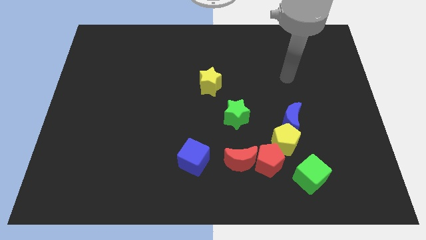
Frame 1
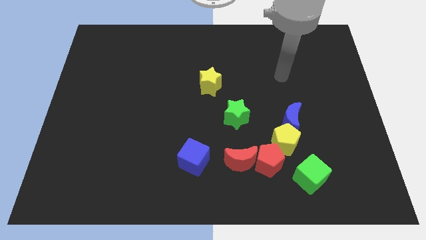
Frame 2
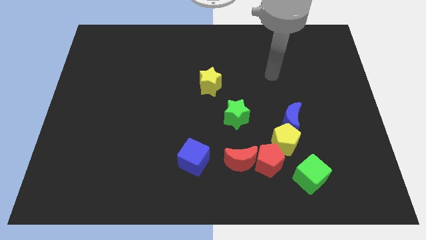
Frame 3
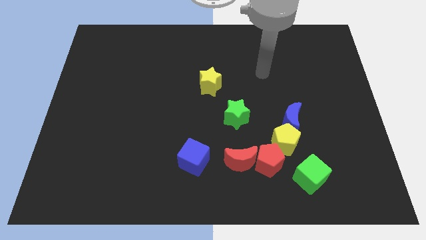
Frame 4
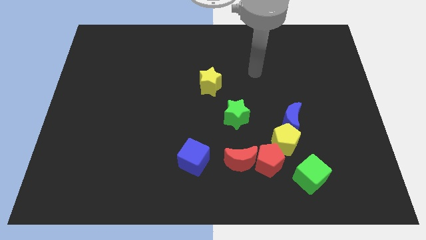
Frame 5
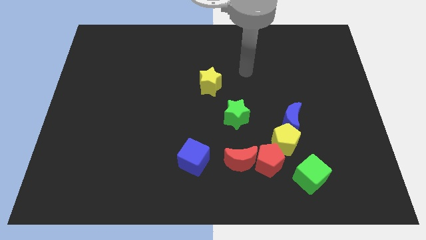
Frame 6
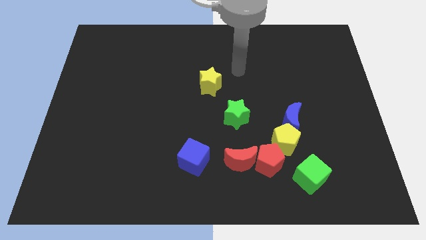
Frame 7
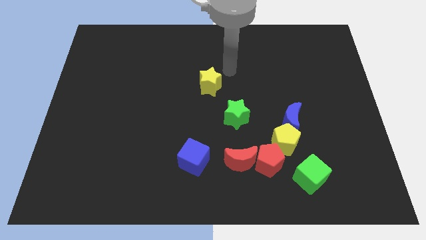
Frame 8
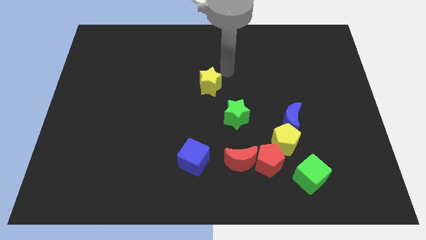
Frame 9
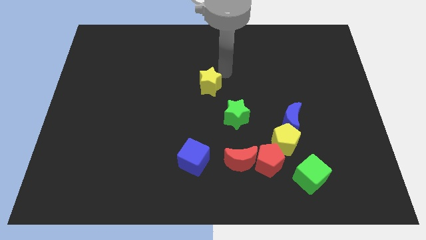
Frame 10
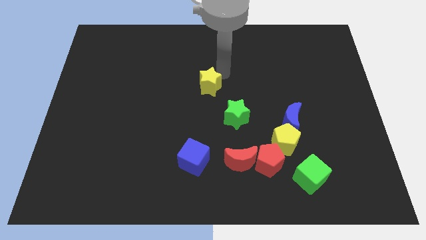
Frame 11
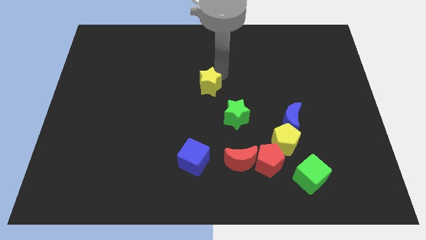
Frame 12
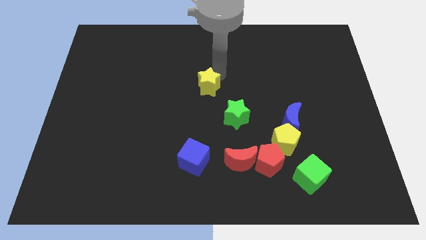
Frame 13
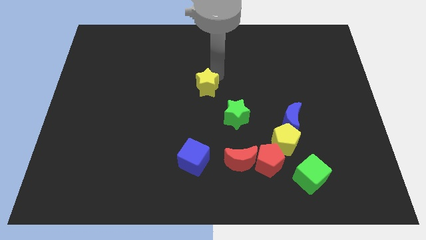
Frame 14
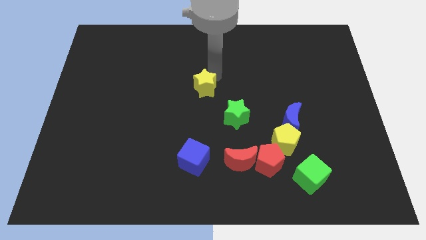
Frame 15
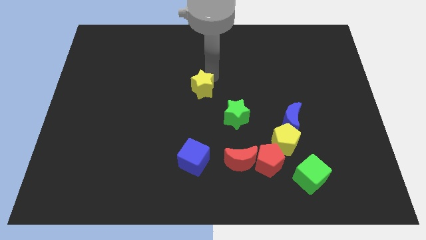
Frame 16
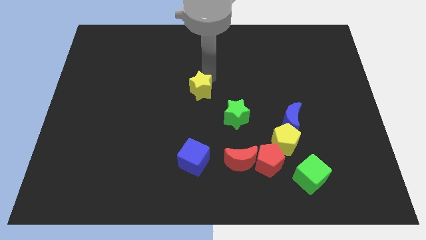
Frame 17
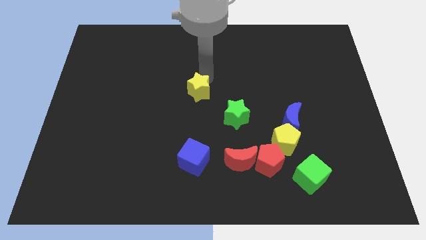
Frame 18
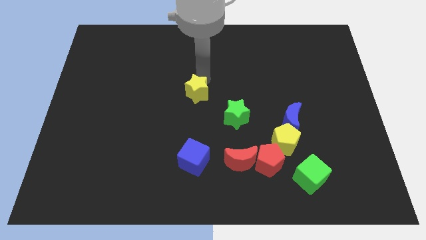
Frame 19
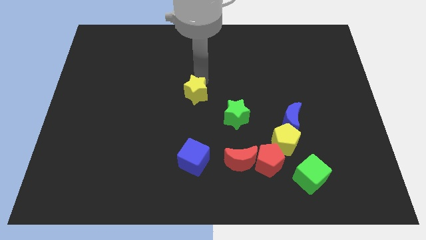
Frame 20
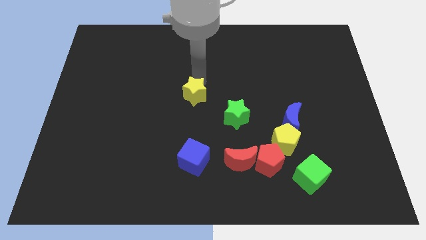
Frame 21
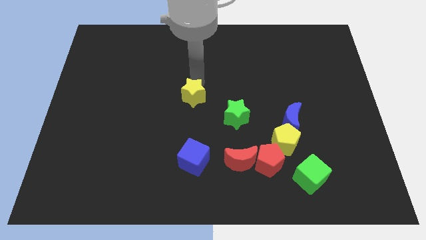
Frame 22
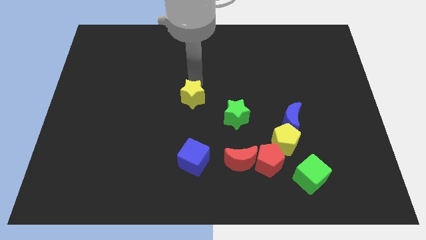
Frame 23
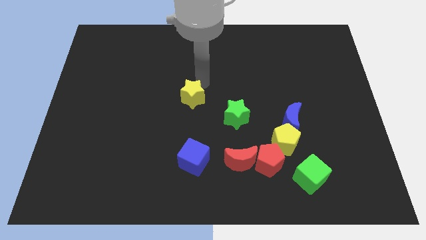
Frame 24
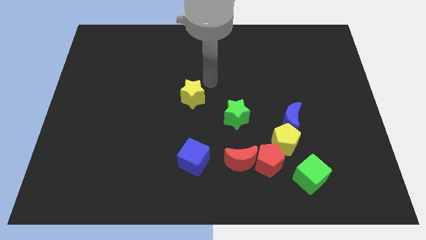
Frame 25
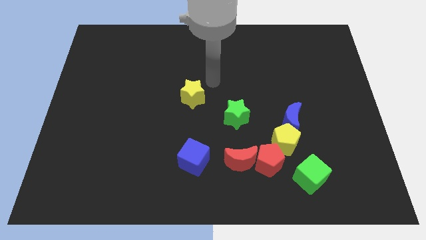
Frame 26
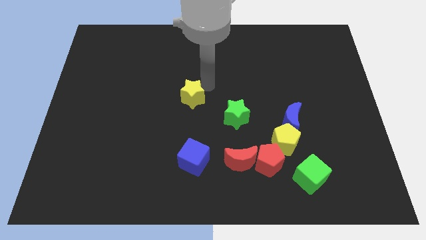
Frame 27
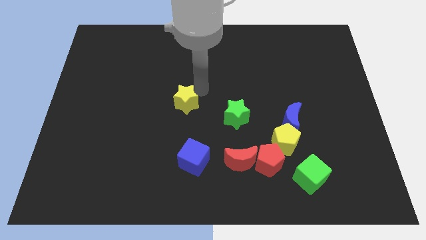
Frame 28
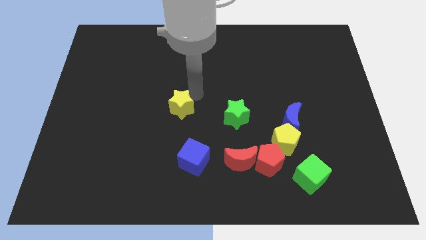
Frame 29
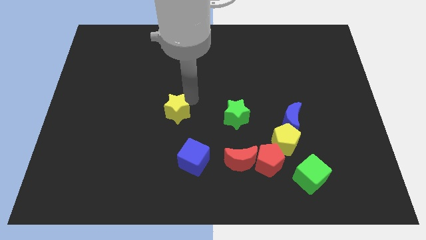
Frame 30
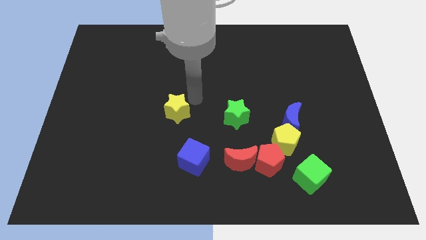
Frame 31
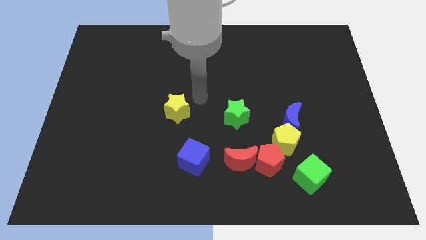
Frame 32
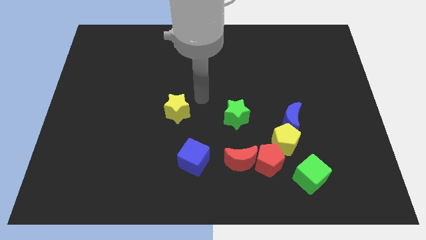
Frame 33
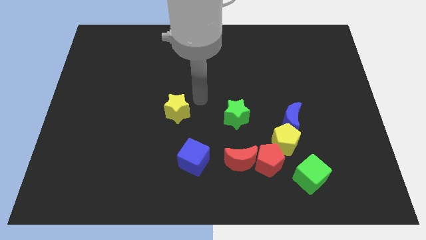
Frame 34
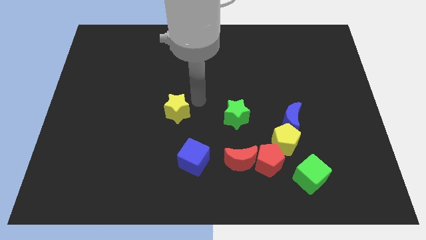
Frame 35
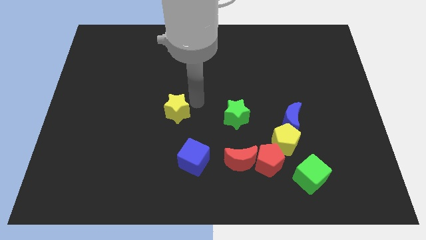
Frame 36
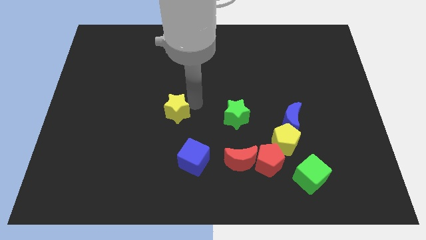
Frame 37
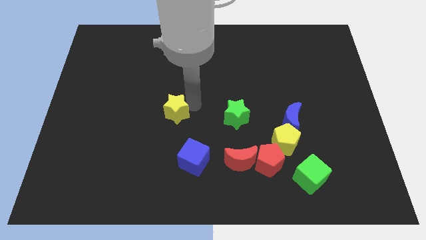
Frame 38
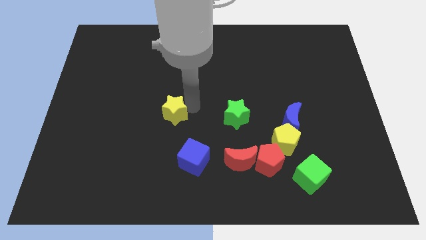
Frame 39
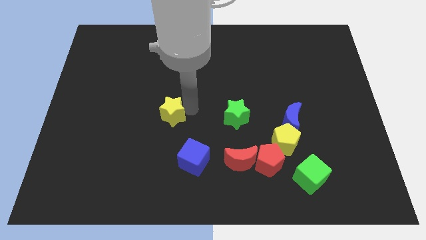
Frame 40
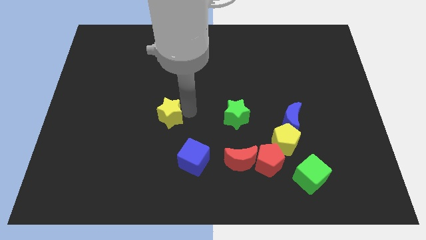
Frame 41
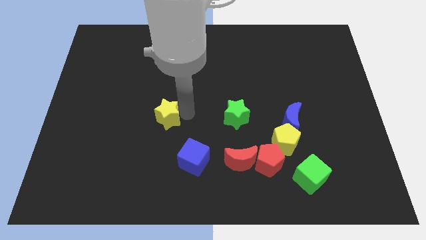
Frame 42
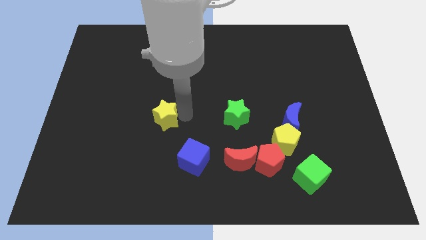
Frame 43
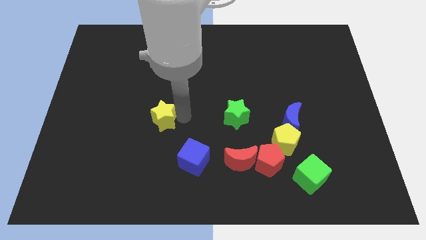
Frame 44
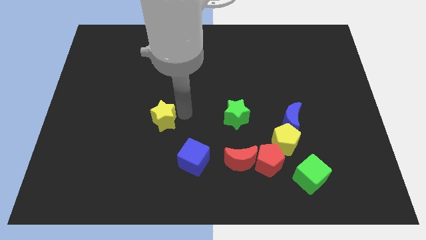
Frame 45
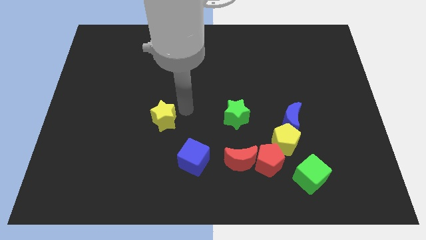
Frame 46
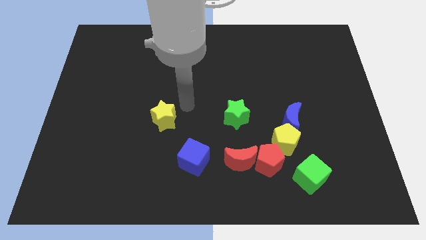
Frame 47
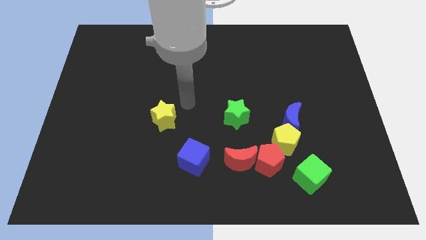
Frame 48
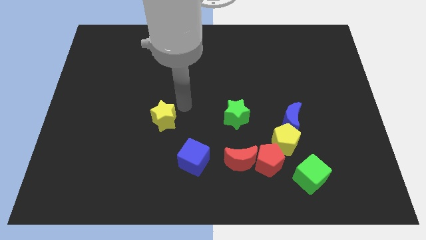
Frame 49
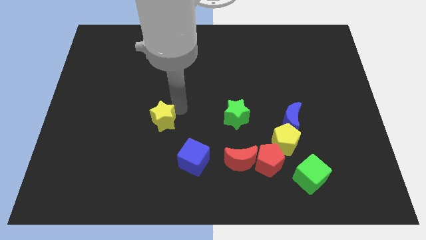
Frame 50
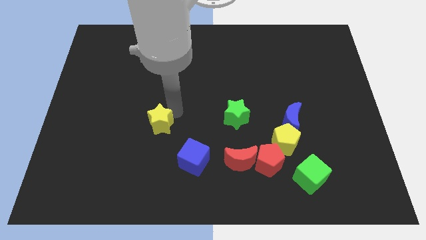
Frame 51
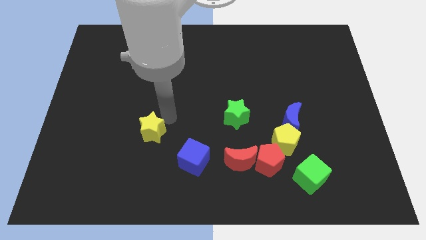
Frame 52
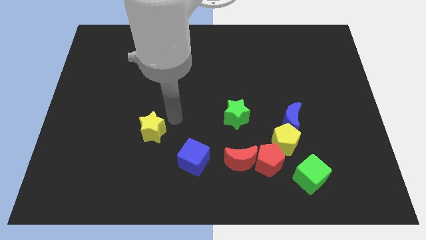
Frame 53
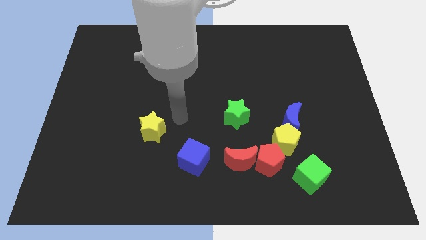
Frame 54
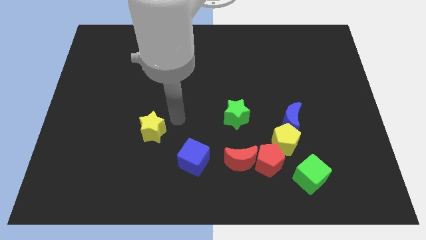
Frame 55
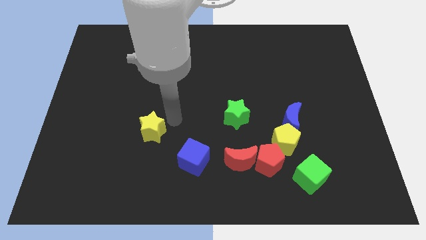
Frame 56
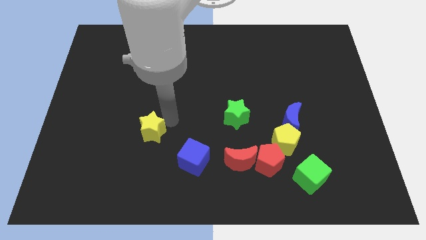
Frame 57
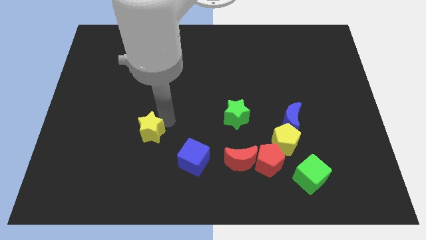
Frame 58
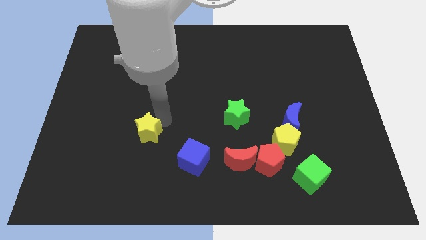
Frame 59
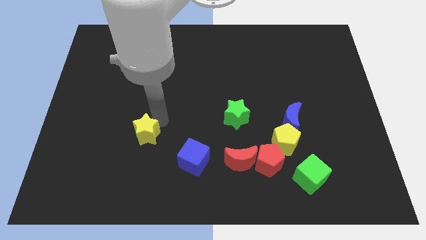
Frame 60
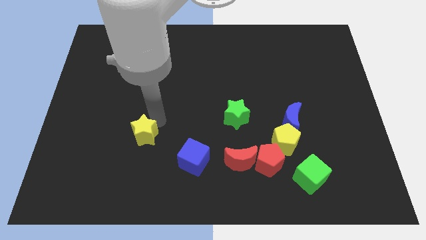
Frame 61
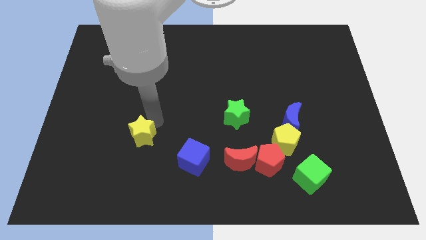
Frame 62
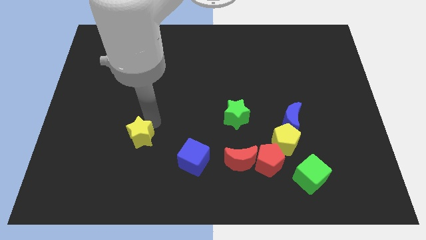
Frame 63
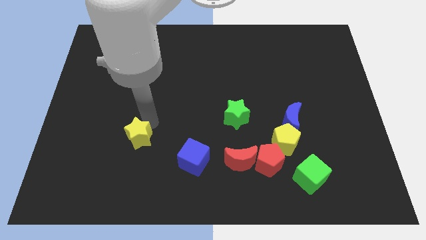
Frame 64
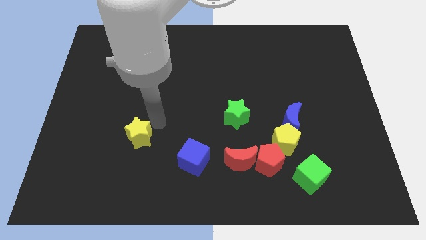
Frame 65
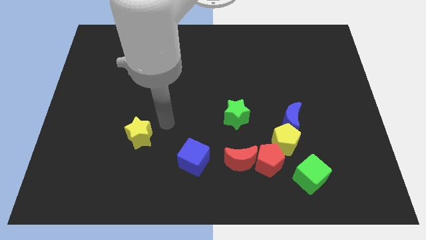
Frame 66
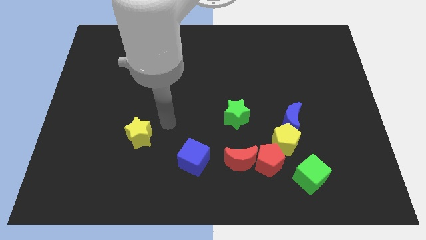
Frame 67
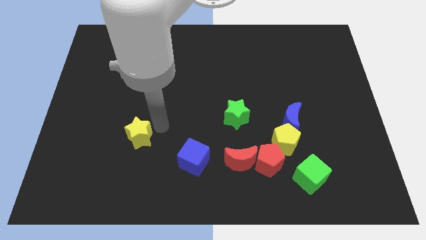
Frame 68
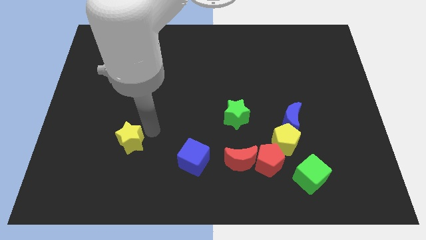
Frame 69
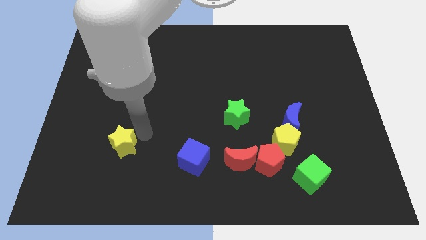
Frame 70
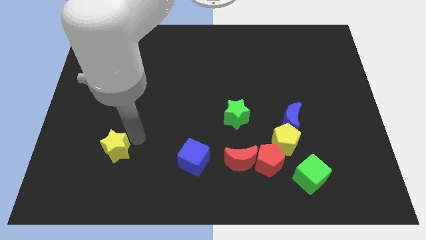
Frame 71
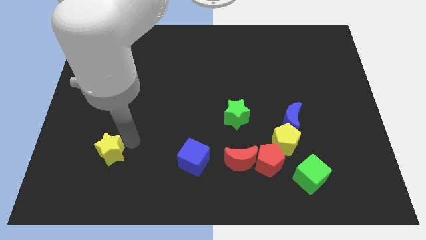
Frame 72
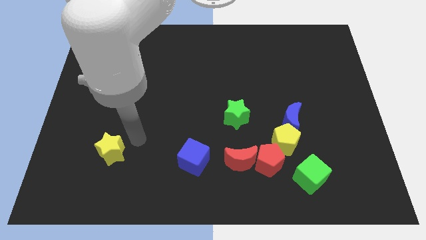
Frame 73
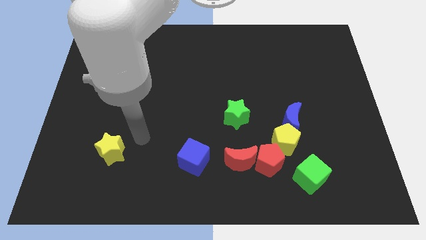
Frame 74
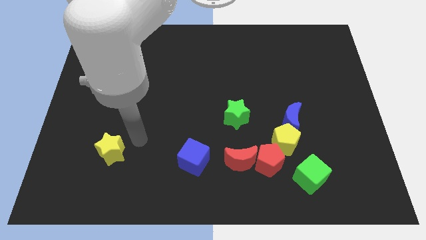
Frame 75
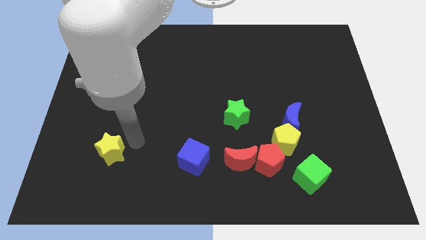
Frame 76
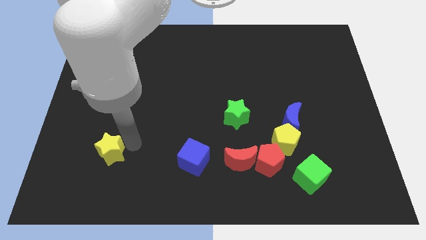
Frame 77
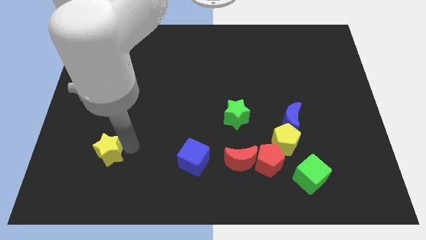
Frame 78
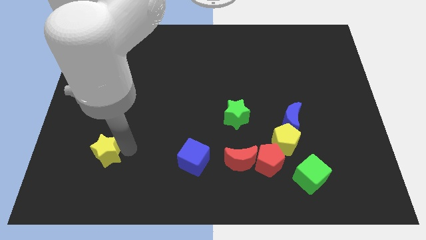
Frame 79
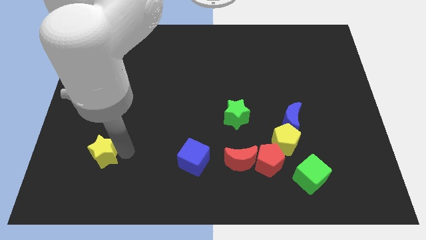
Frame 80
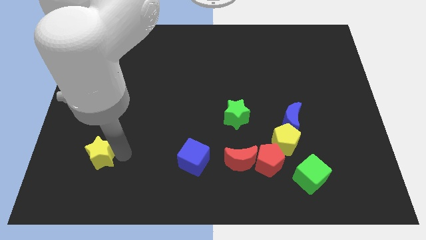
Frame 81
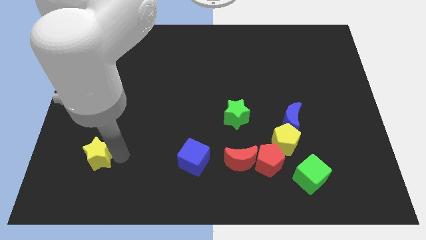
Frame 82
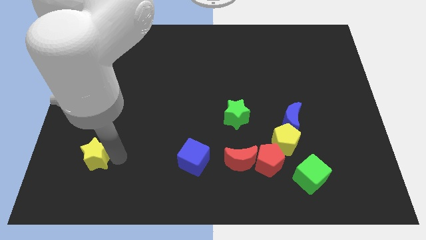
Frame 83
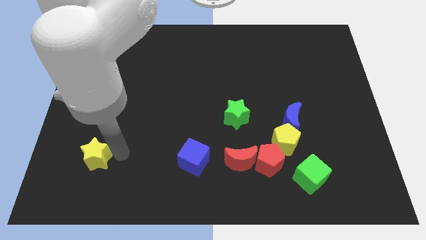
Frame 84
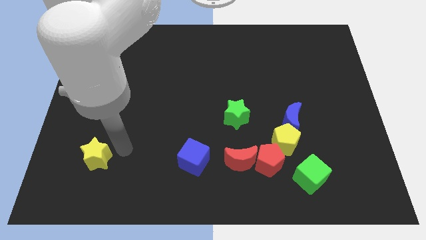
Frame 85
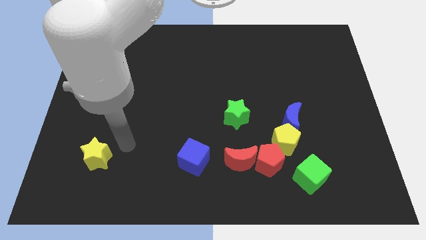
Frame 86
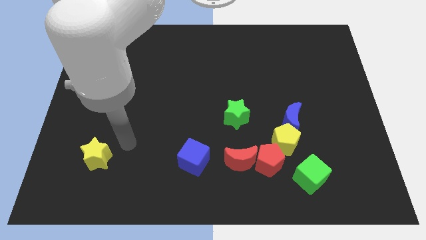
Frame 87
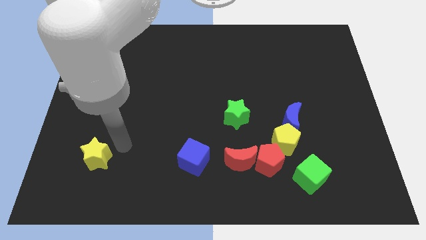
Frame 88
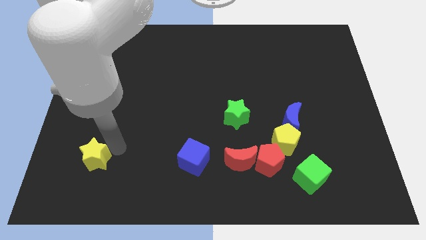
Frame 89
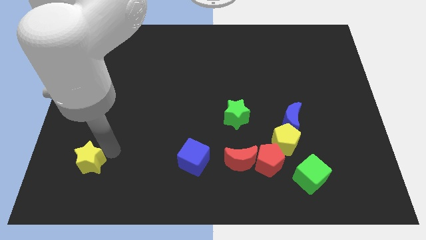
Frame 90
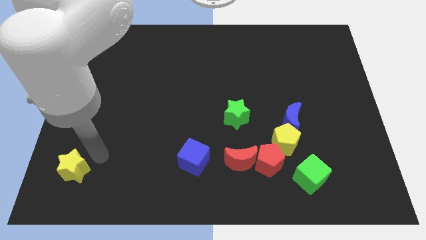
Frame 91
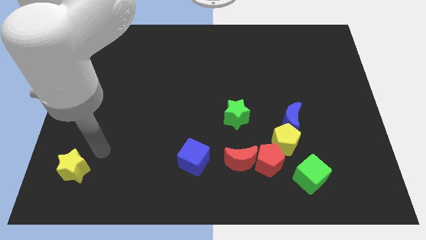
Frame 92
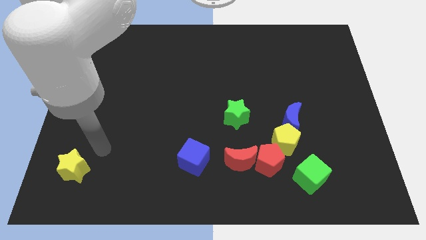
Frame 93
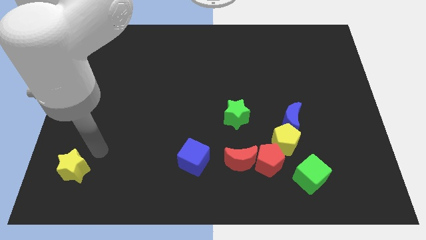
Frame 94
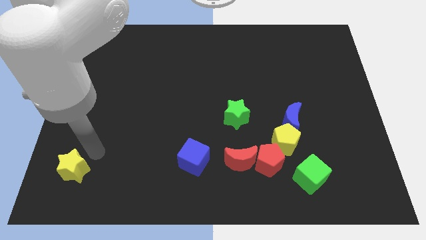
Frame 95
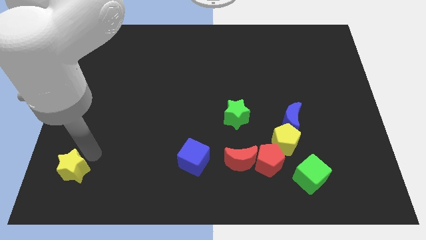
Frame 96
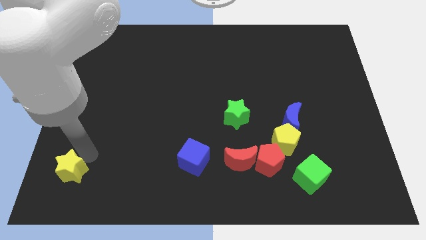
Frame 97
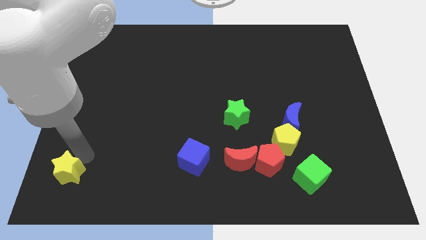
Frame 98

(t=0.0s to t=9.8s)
push the yellow star to the bottom left
